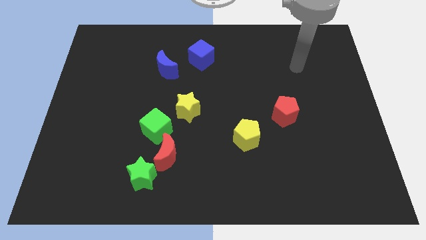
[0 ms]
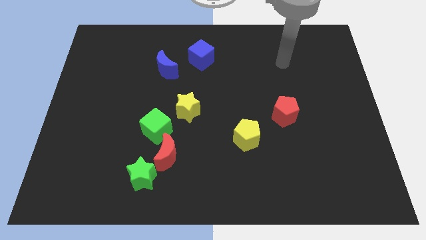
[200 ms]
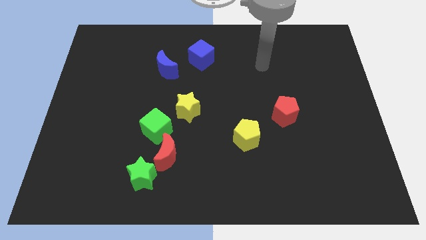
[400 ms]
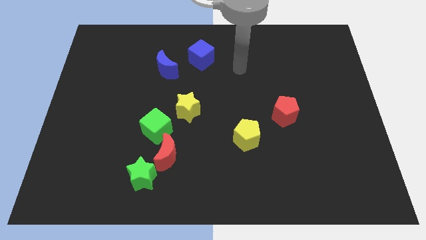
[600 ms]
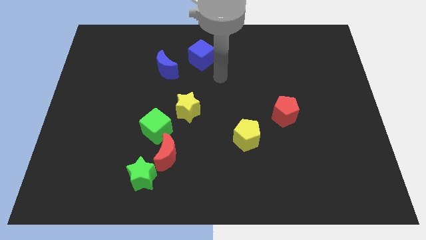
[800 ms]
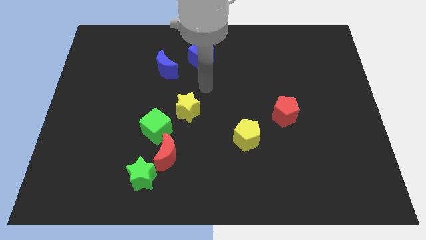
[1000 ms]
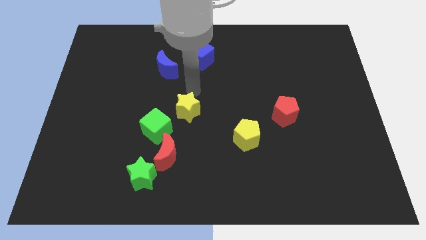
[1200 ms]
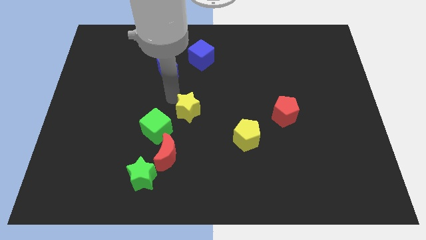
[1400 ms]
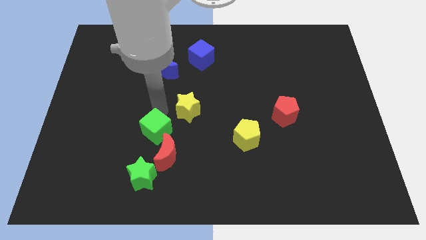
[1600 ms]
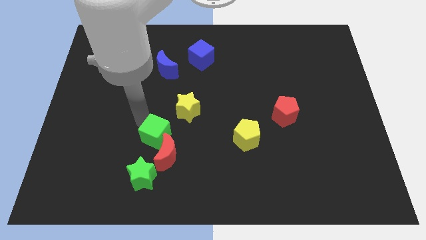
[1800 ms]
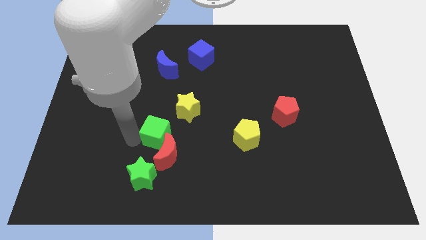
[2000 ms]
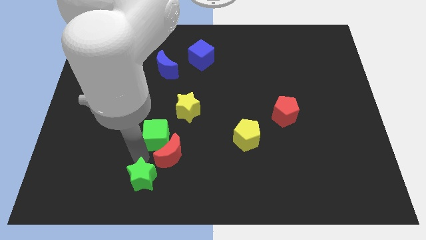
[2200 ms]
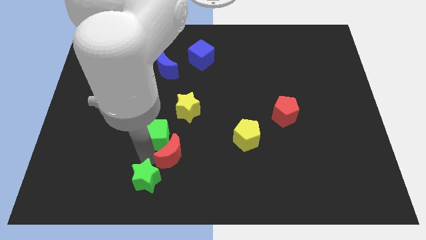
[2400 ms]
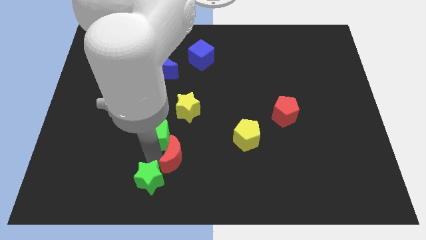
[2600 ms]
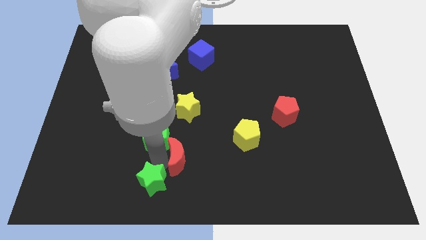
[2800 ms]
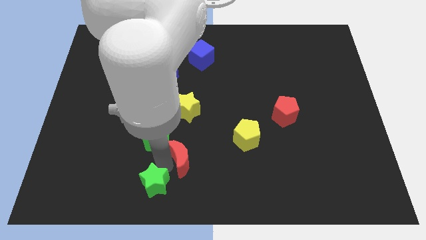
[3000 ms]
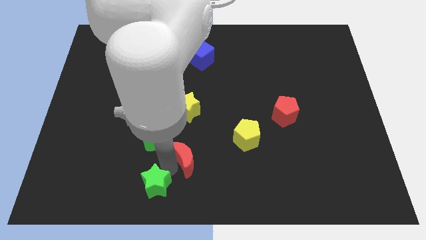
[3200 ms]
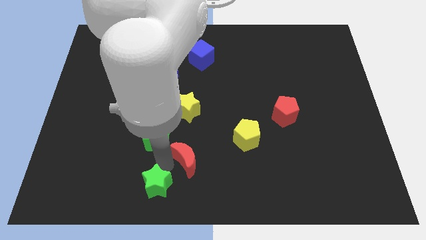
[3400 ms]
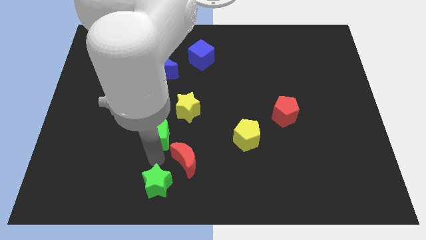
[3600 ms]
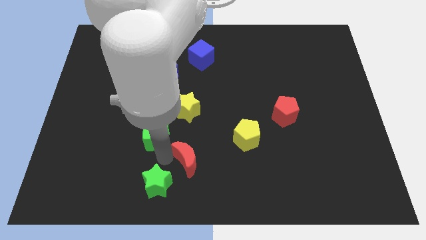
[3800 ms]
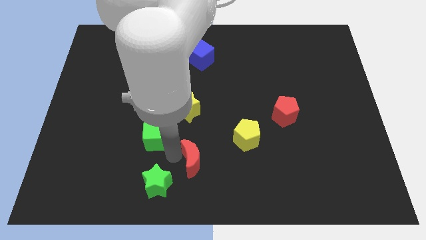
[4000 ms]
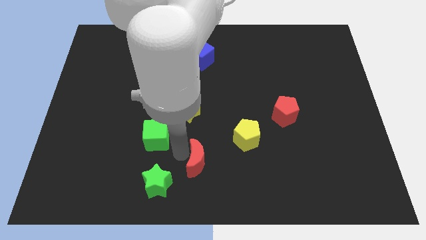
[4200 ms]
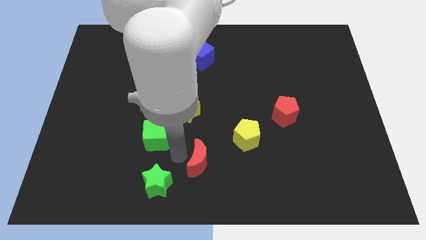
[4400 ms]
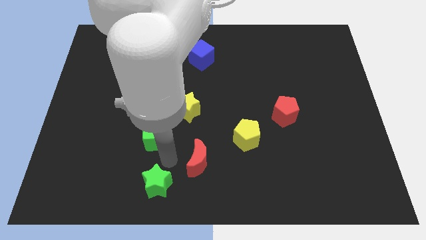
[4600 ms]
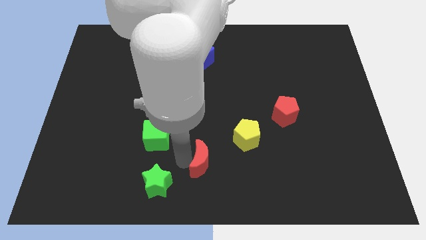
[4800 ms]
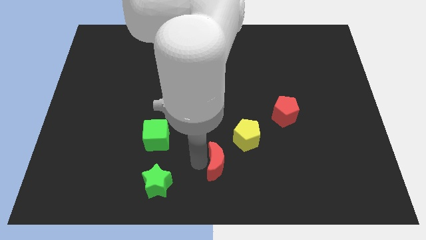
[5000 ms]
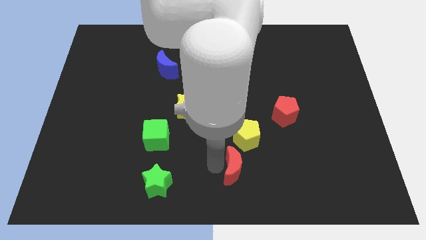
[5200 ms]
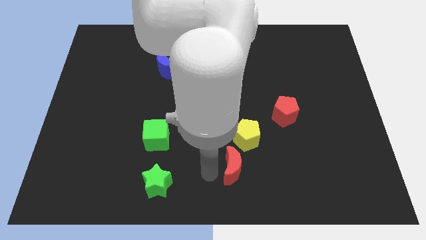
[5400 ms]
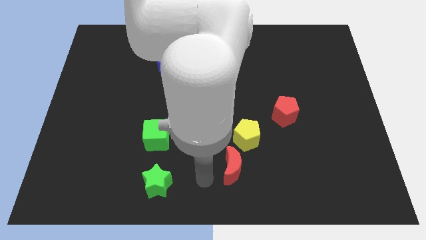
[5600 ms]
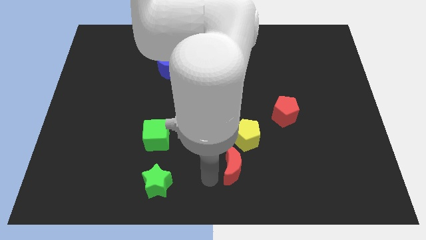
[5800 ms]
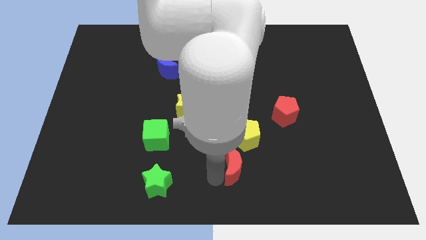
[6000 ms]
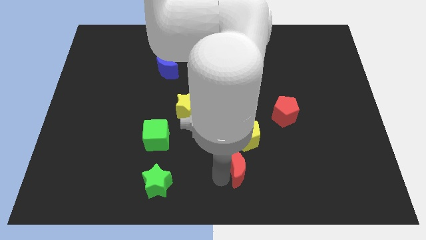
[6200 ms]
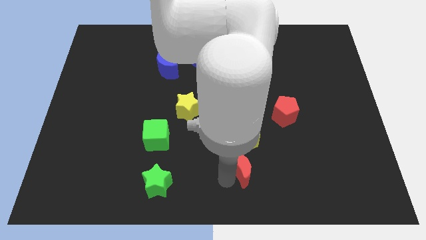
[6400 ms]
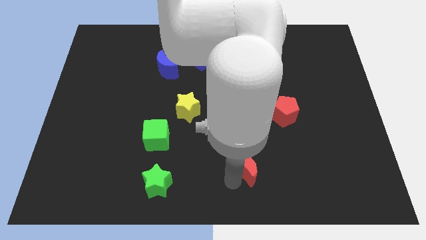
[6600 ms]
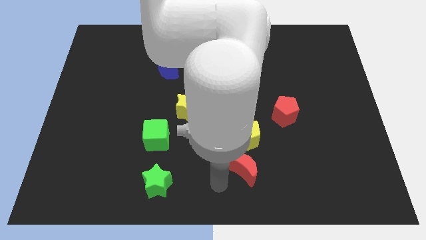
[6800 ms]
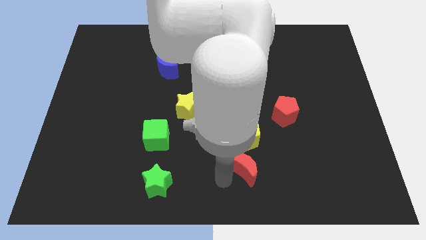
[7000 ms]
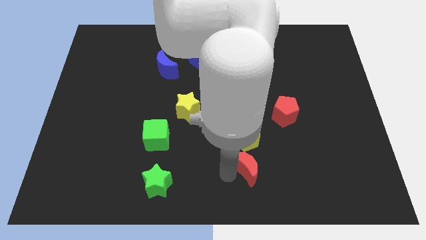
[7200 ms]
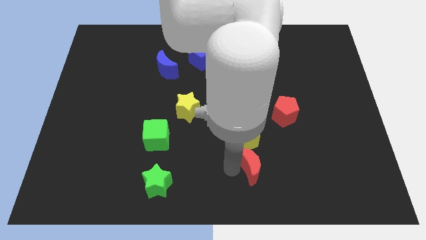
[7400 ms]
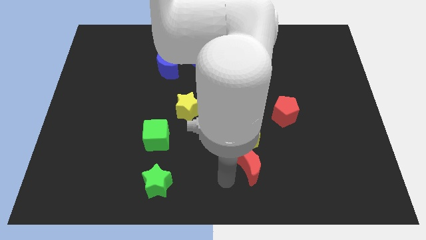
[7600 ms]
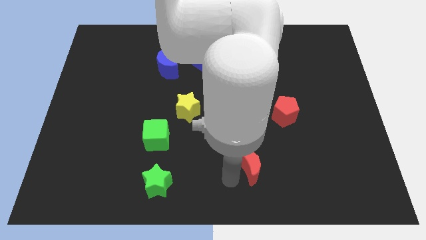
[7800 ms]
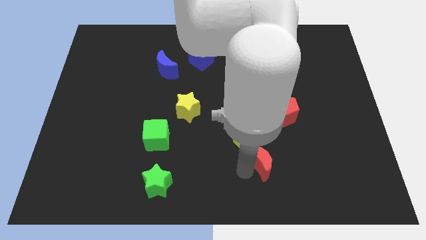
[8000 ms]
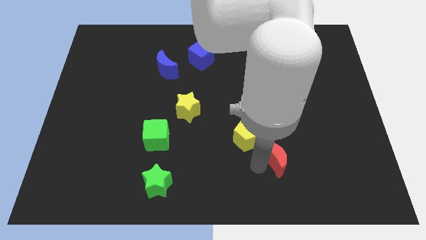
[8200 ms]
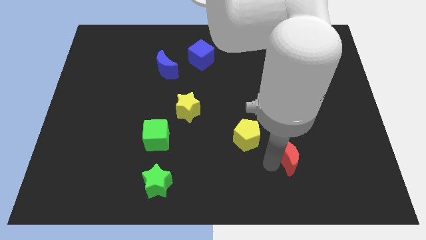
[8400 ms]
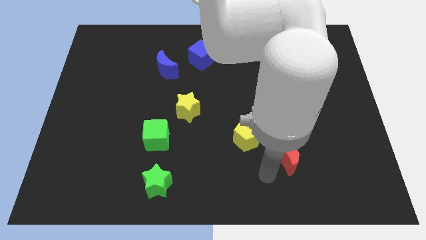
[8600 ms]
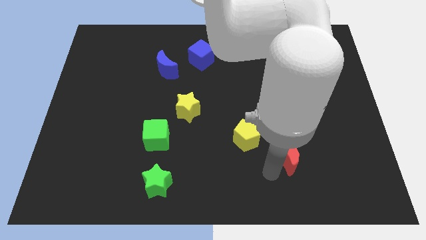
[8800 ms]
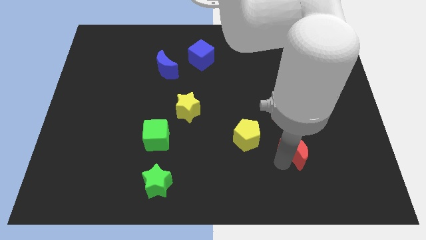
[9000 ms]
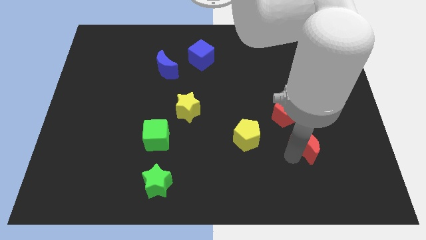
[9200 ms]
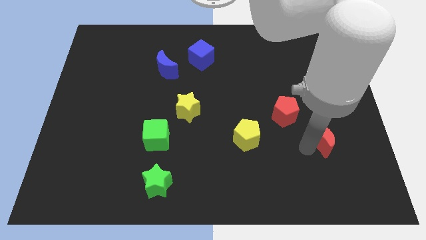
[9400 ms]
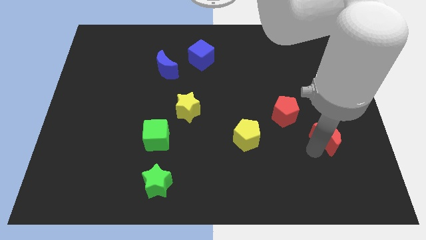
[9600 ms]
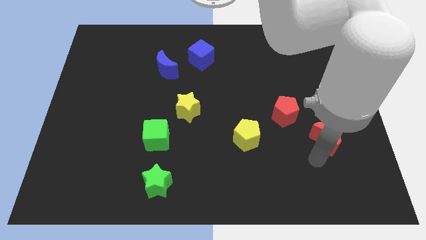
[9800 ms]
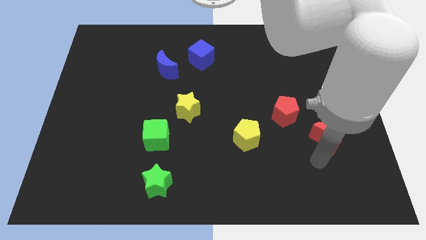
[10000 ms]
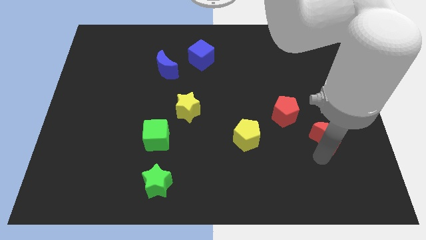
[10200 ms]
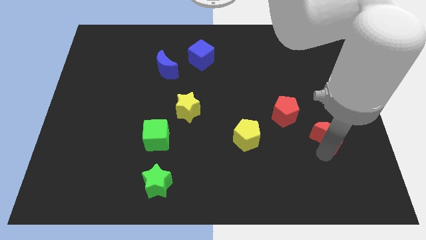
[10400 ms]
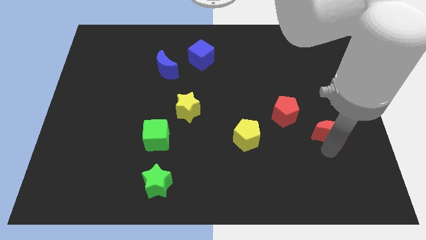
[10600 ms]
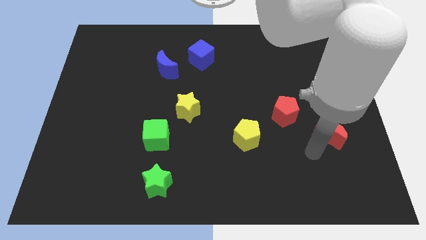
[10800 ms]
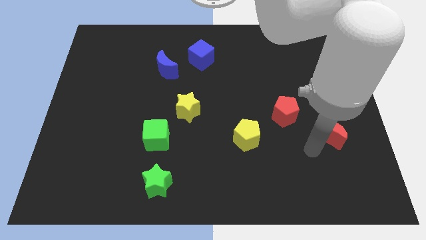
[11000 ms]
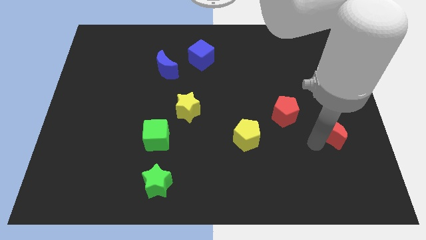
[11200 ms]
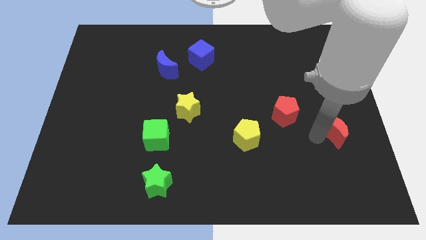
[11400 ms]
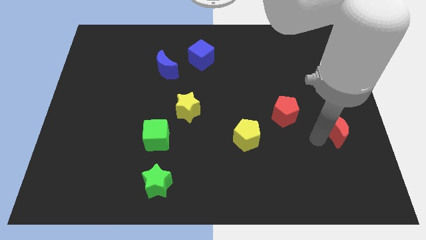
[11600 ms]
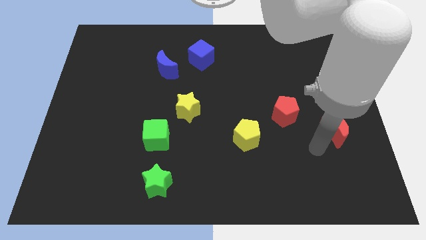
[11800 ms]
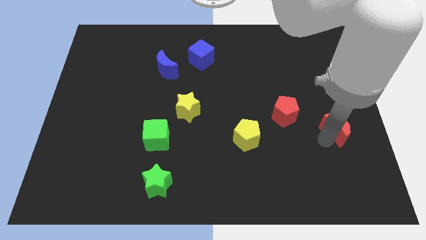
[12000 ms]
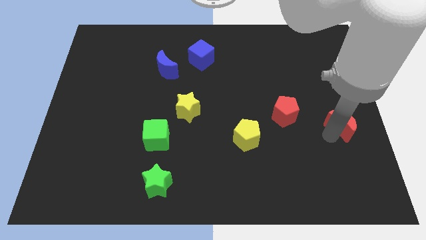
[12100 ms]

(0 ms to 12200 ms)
move the red moon to the center right

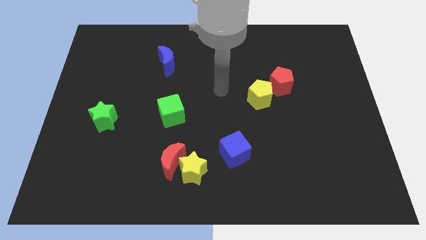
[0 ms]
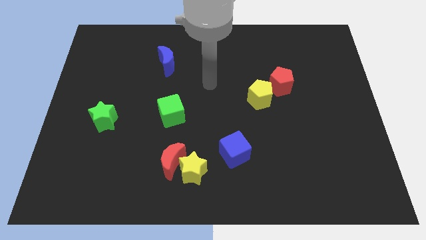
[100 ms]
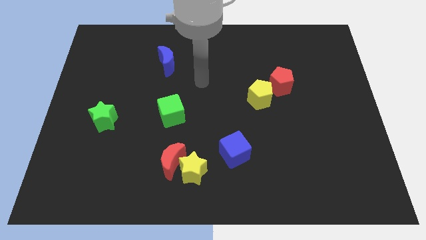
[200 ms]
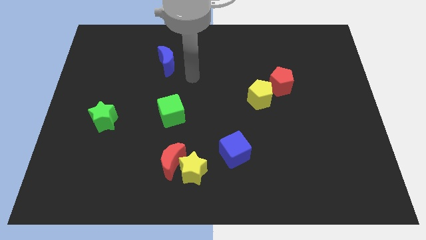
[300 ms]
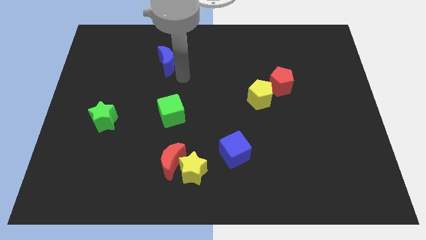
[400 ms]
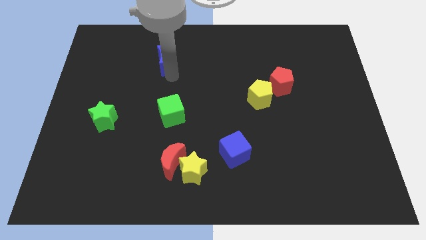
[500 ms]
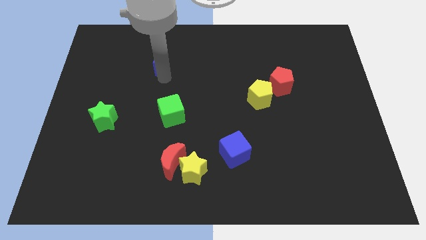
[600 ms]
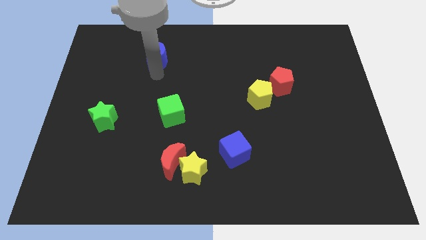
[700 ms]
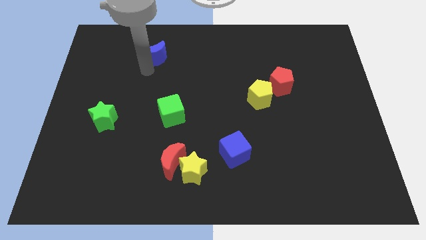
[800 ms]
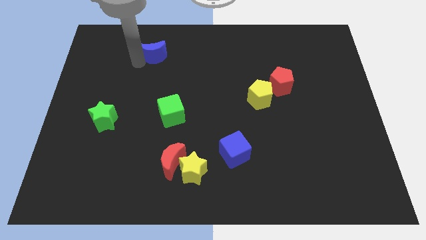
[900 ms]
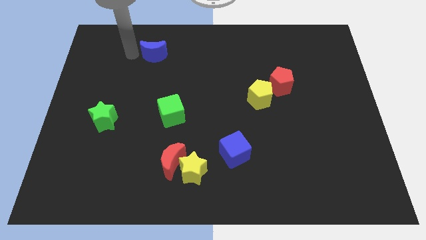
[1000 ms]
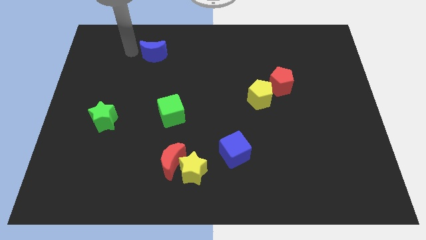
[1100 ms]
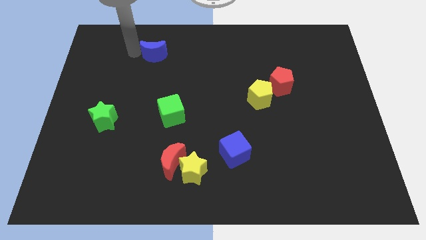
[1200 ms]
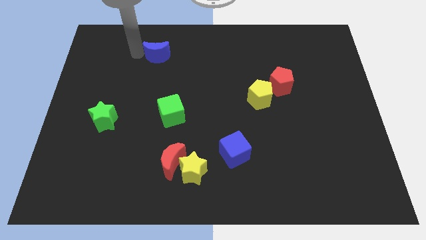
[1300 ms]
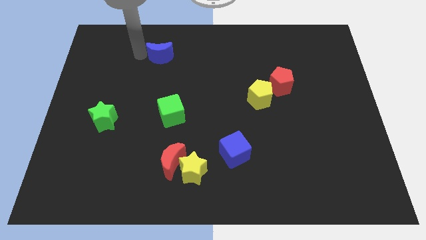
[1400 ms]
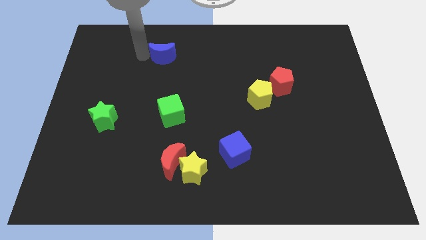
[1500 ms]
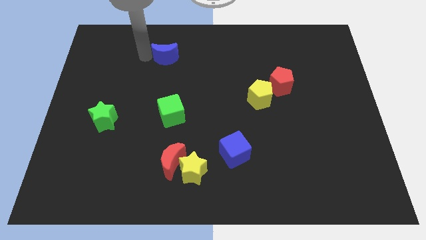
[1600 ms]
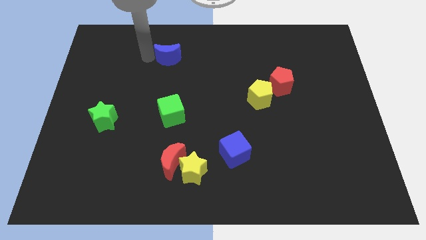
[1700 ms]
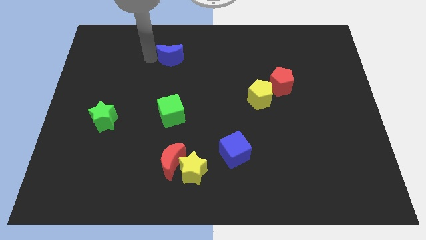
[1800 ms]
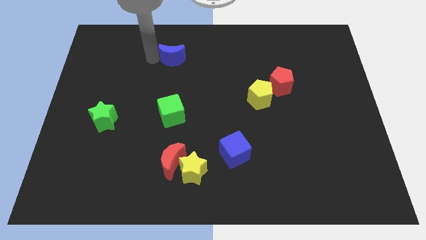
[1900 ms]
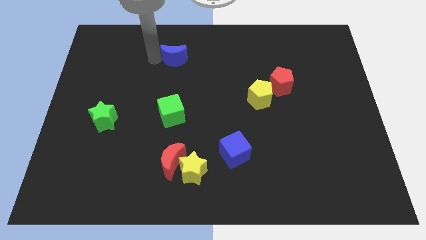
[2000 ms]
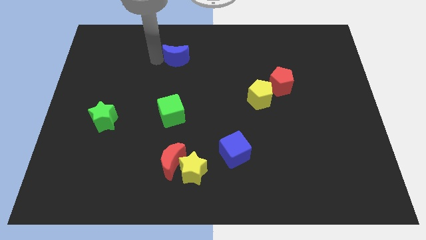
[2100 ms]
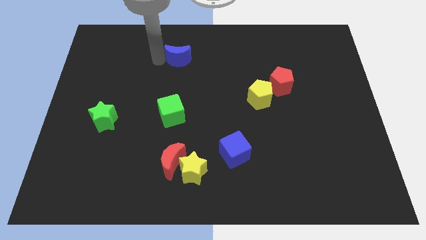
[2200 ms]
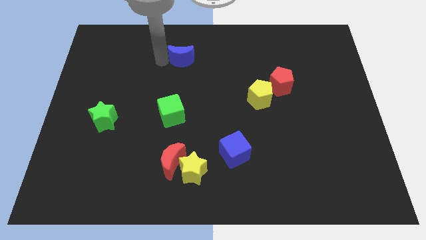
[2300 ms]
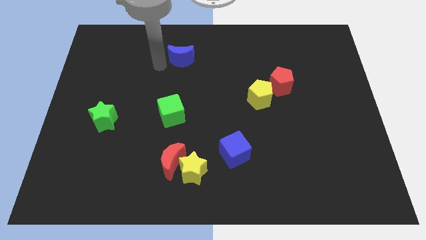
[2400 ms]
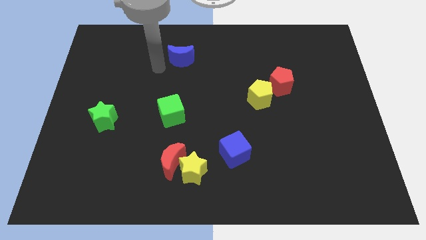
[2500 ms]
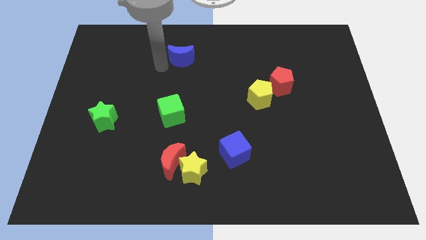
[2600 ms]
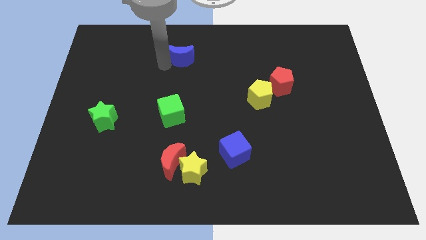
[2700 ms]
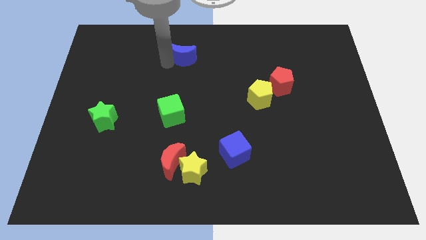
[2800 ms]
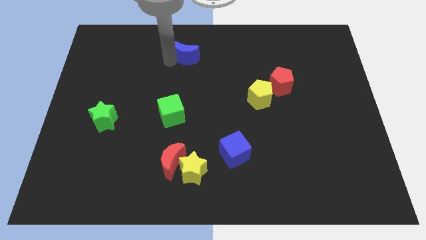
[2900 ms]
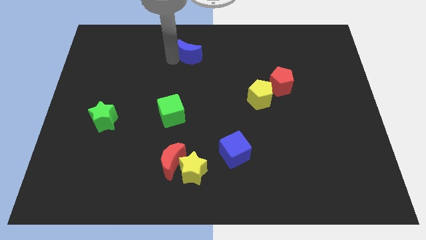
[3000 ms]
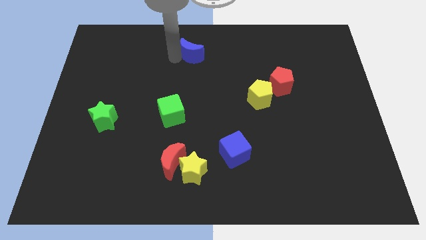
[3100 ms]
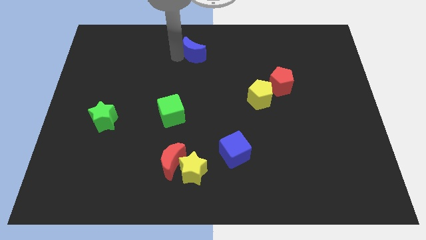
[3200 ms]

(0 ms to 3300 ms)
push the blue moon to the top
